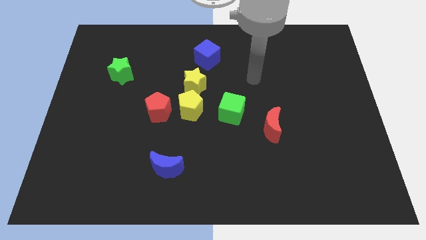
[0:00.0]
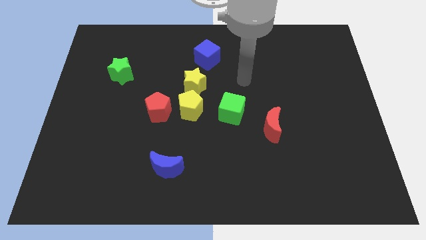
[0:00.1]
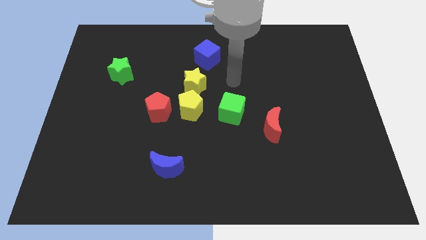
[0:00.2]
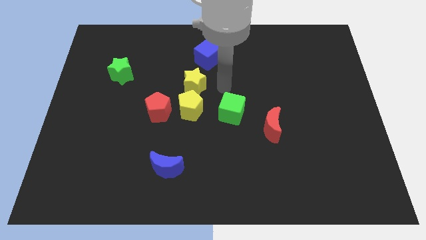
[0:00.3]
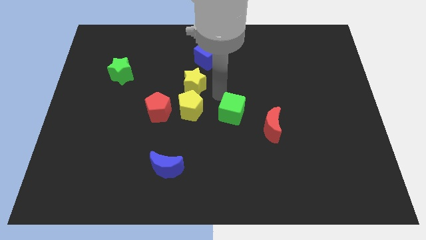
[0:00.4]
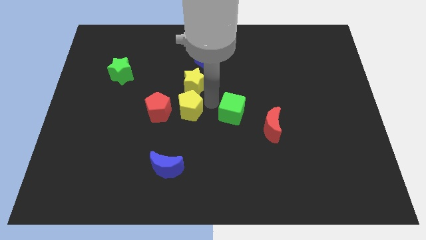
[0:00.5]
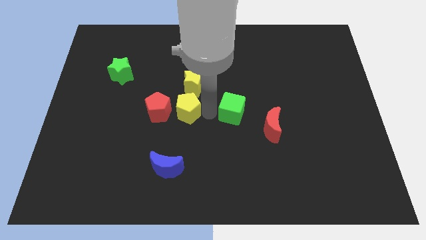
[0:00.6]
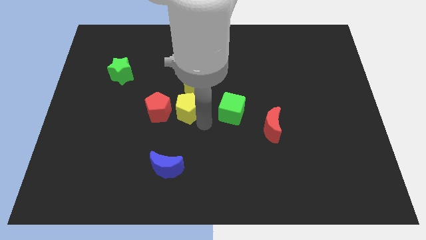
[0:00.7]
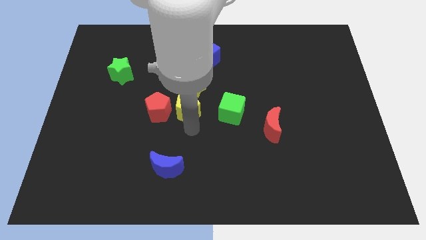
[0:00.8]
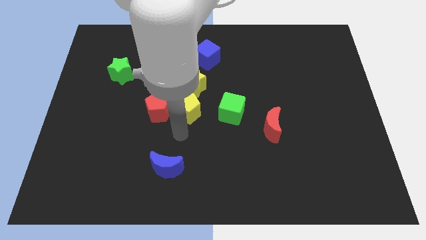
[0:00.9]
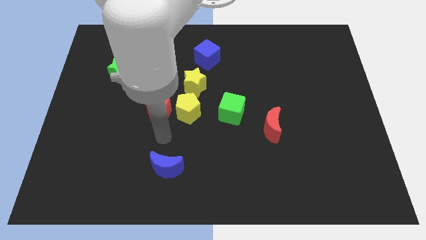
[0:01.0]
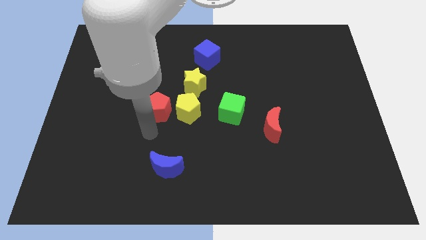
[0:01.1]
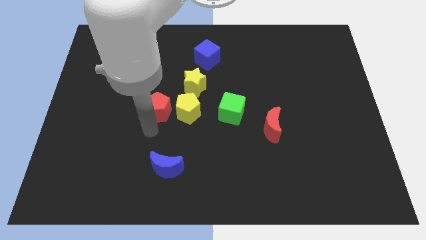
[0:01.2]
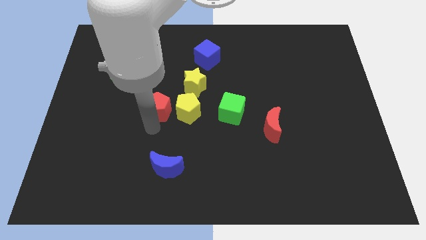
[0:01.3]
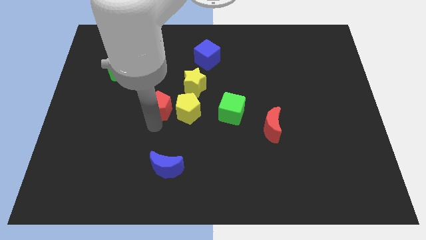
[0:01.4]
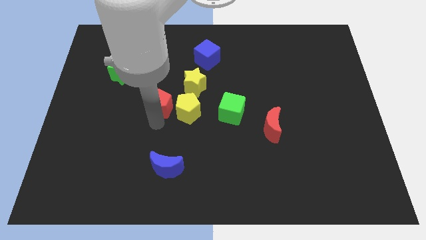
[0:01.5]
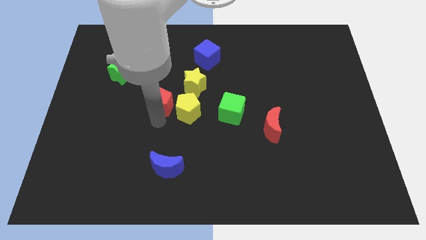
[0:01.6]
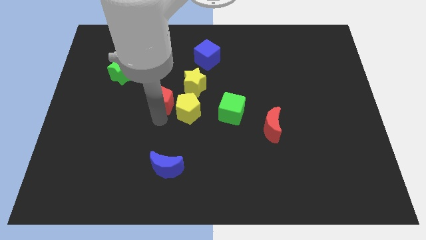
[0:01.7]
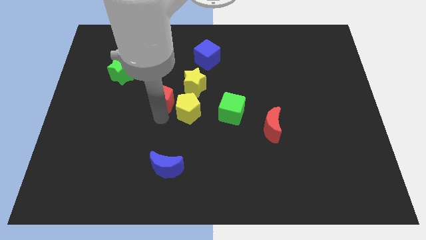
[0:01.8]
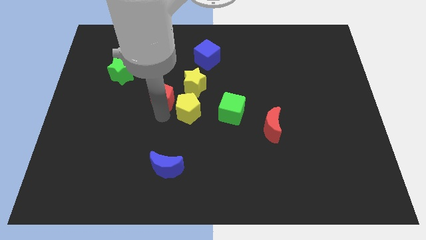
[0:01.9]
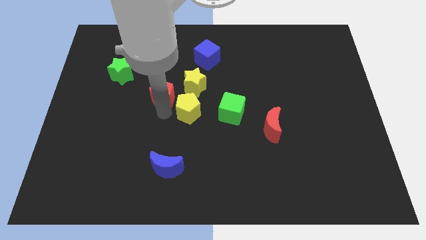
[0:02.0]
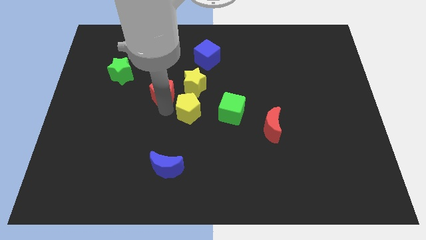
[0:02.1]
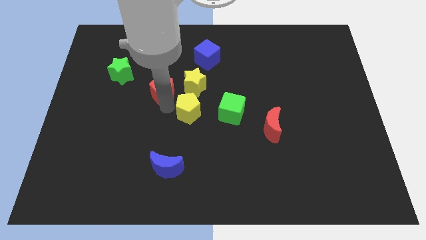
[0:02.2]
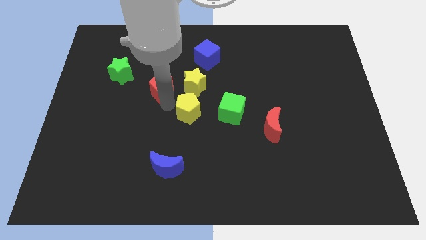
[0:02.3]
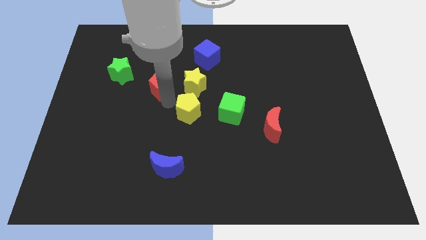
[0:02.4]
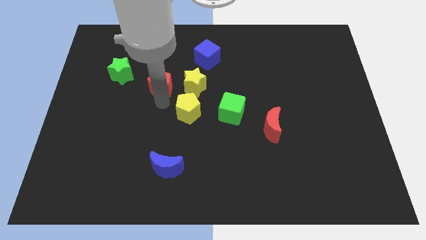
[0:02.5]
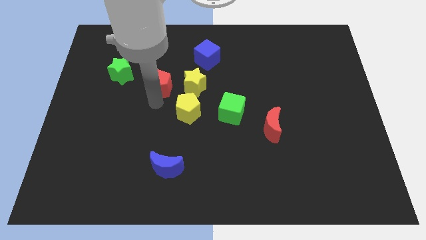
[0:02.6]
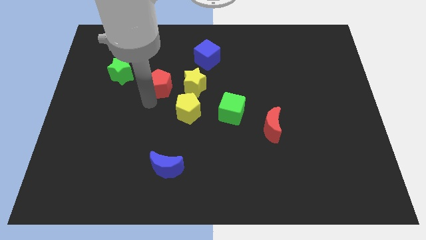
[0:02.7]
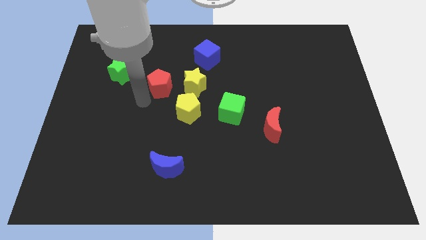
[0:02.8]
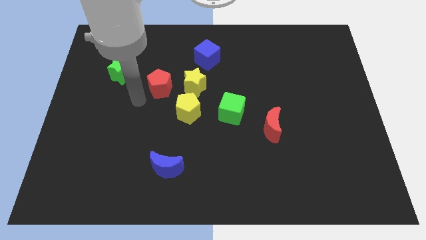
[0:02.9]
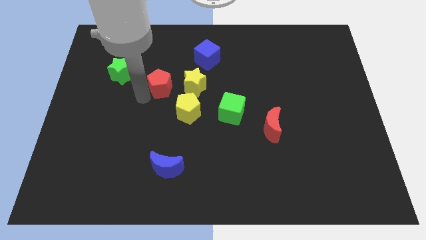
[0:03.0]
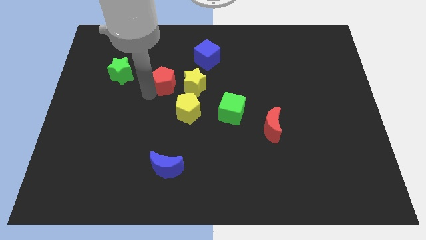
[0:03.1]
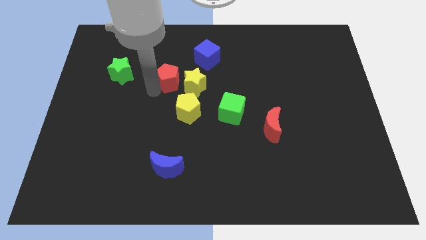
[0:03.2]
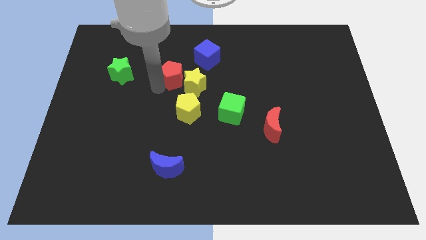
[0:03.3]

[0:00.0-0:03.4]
slightly move the red pentagon upwards and then to the right

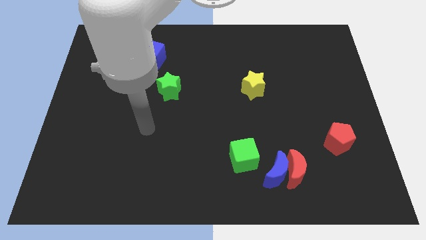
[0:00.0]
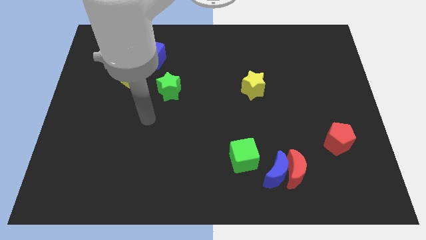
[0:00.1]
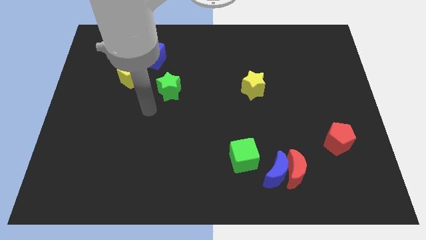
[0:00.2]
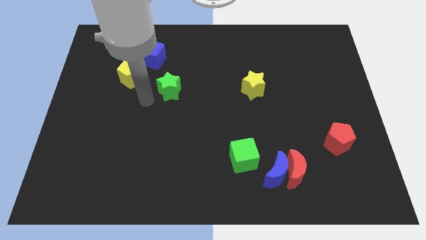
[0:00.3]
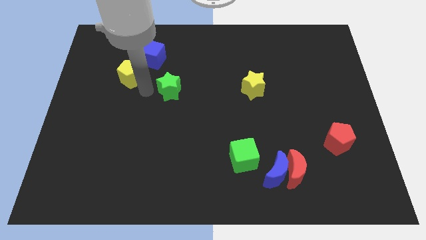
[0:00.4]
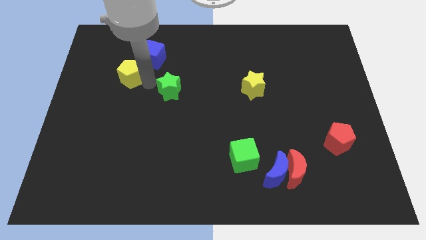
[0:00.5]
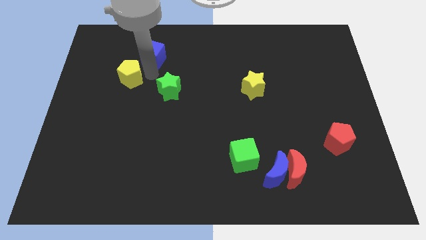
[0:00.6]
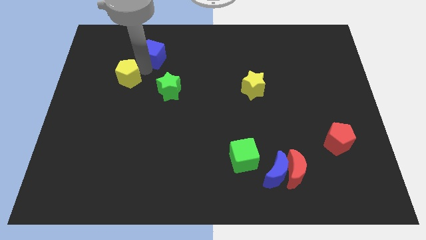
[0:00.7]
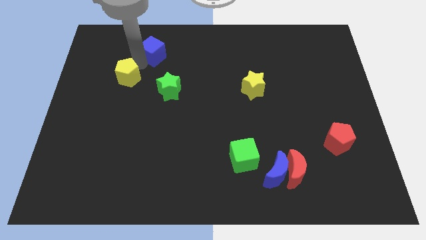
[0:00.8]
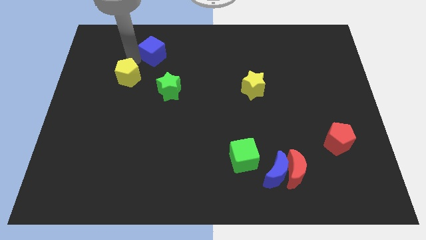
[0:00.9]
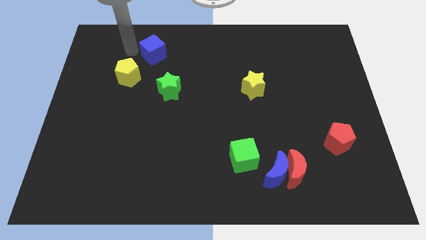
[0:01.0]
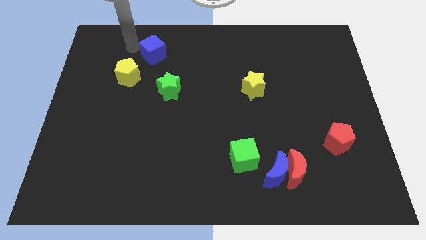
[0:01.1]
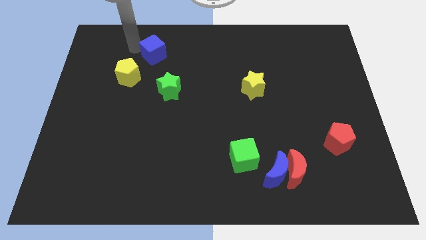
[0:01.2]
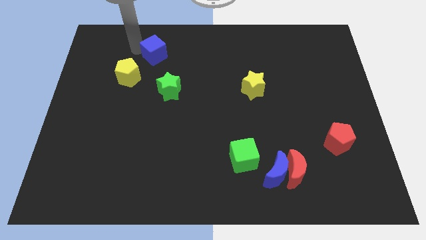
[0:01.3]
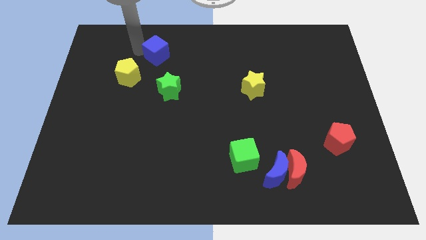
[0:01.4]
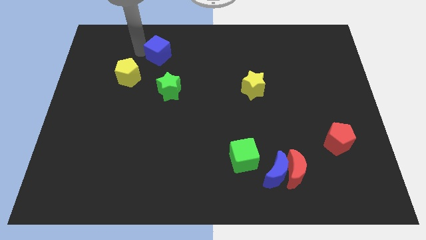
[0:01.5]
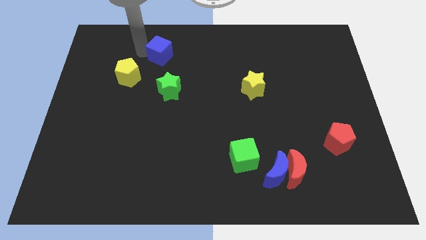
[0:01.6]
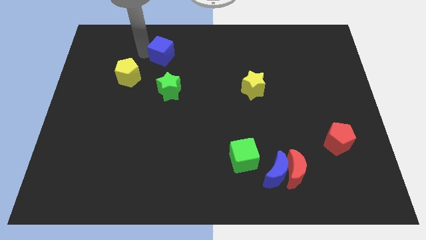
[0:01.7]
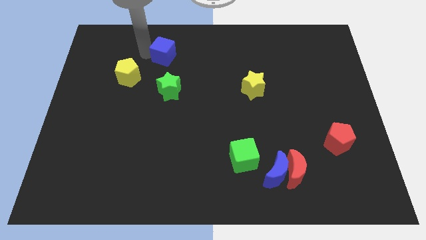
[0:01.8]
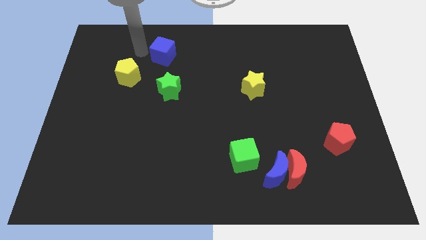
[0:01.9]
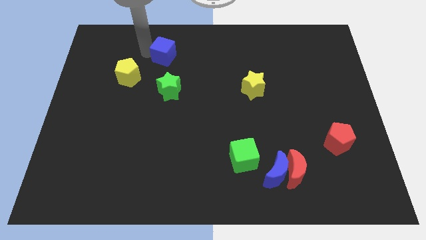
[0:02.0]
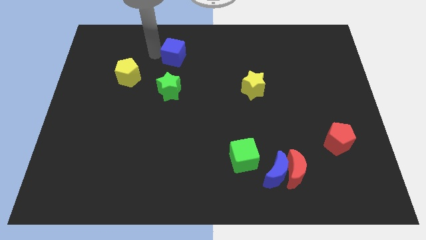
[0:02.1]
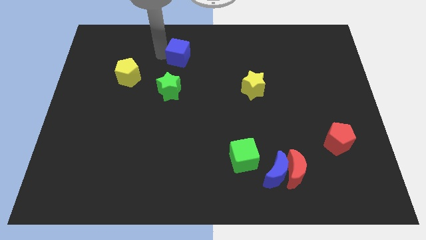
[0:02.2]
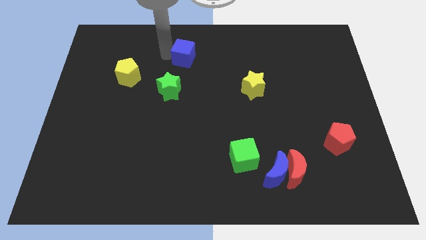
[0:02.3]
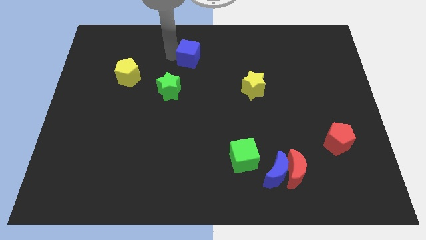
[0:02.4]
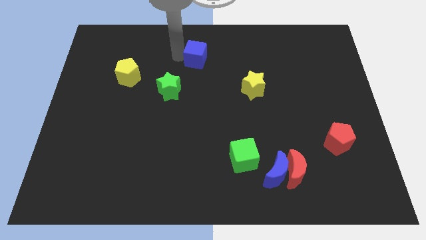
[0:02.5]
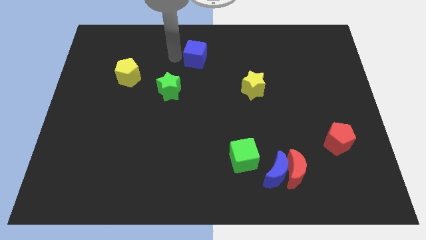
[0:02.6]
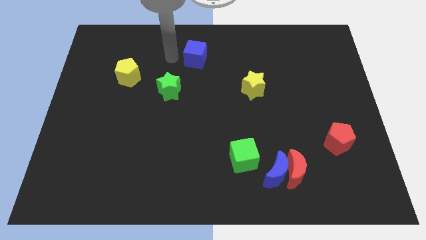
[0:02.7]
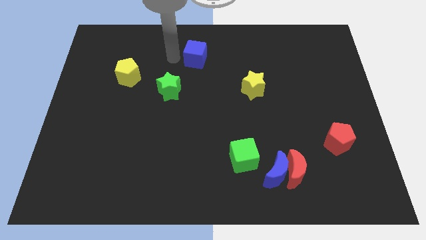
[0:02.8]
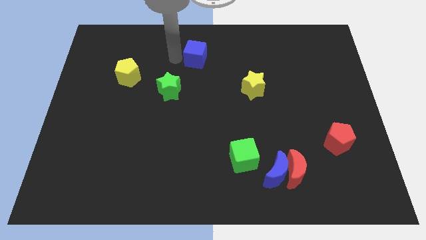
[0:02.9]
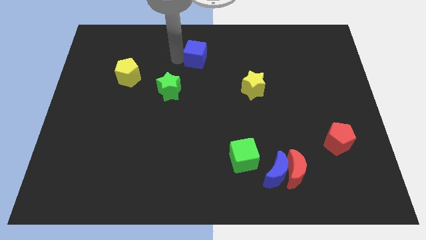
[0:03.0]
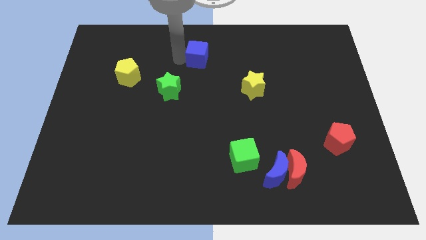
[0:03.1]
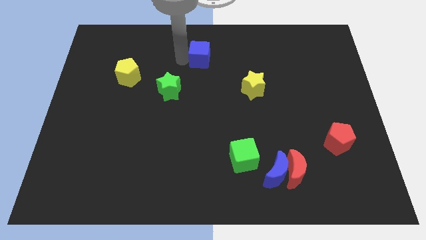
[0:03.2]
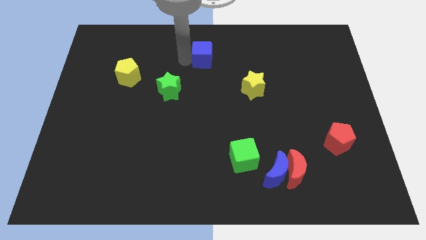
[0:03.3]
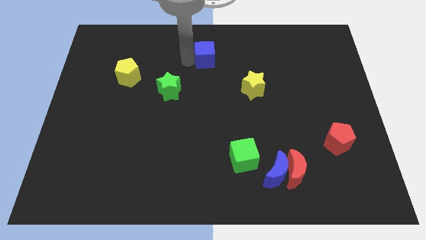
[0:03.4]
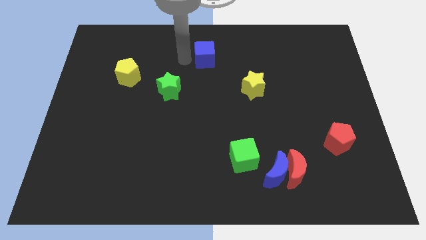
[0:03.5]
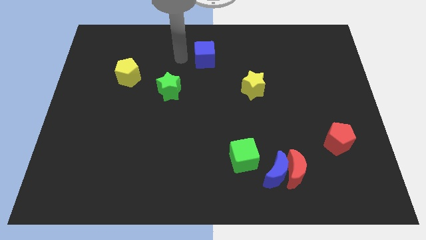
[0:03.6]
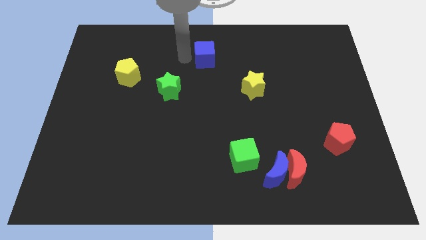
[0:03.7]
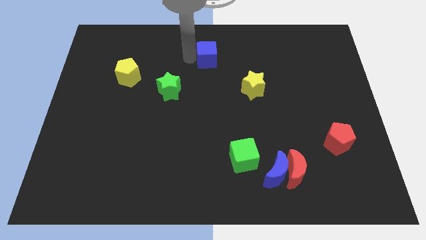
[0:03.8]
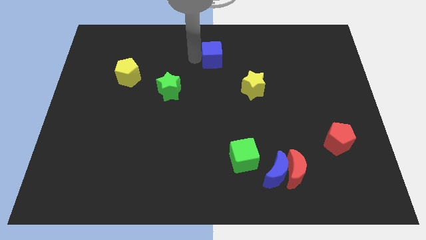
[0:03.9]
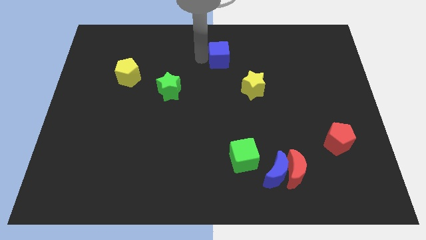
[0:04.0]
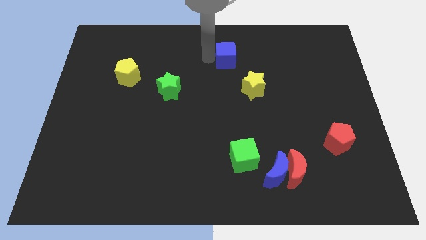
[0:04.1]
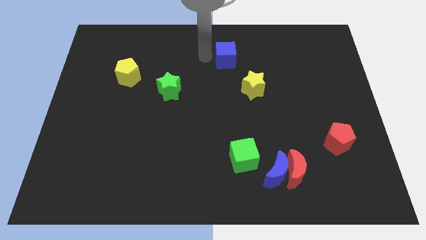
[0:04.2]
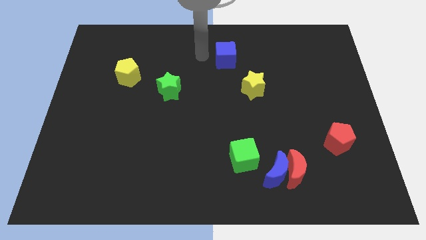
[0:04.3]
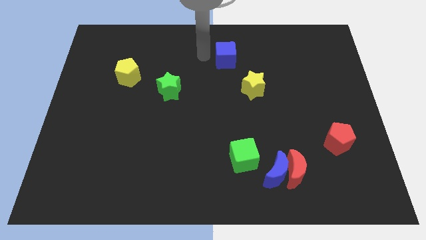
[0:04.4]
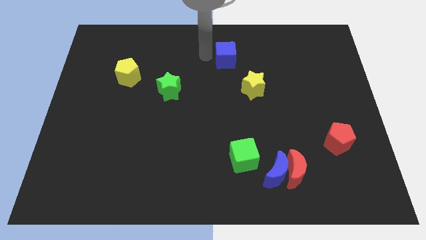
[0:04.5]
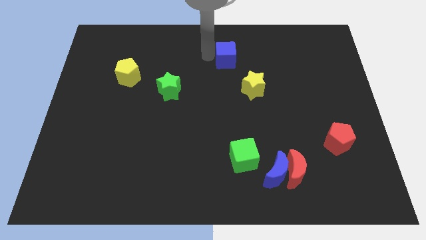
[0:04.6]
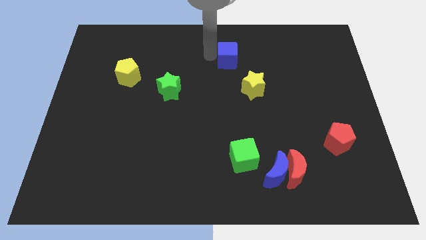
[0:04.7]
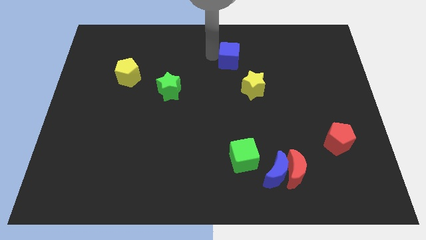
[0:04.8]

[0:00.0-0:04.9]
slide the blue cube to the right
